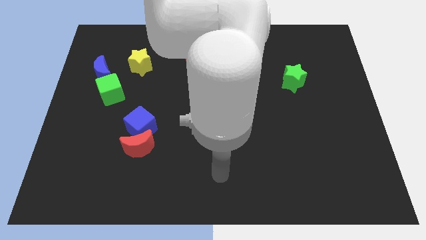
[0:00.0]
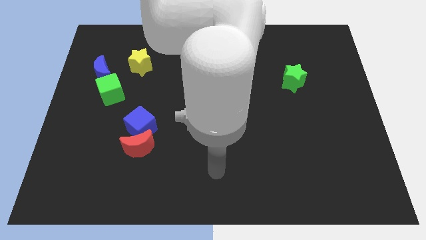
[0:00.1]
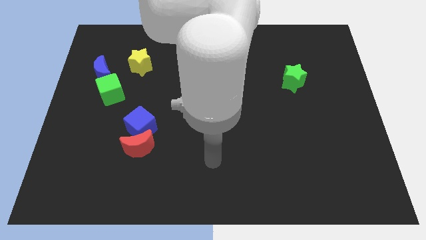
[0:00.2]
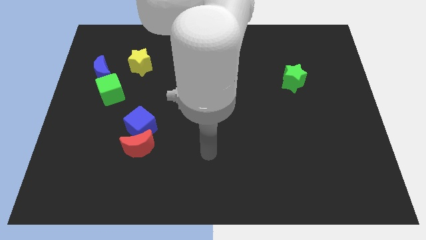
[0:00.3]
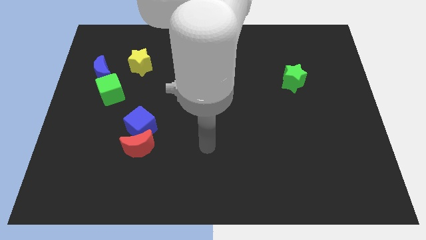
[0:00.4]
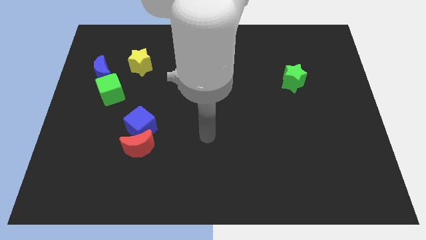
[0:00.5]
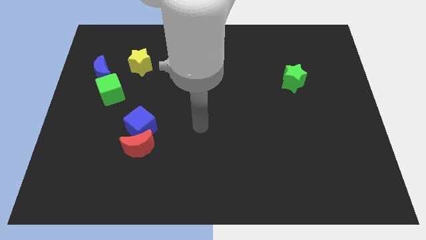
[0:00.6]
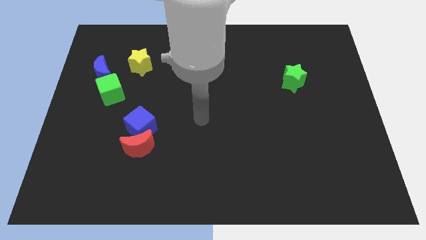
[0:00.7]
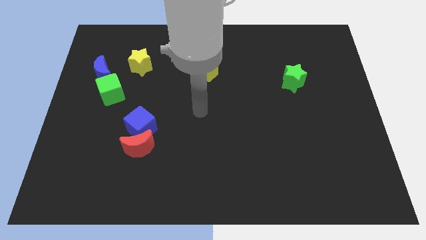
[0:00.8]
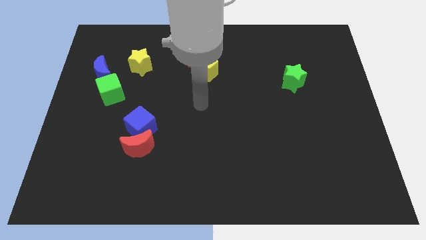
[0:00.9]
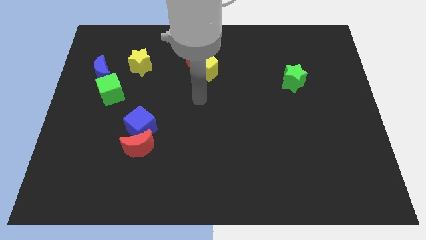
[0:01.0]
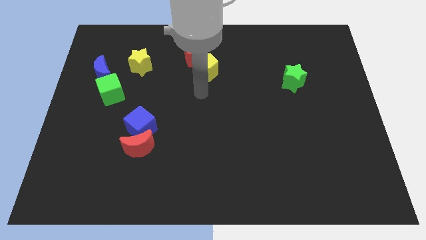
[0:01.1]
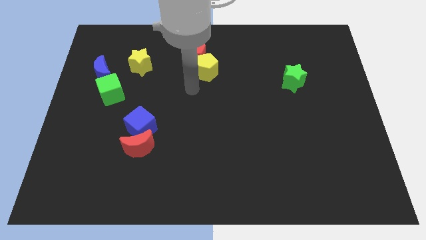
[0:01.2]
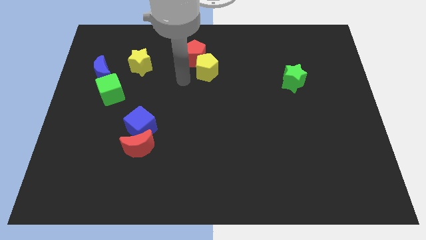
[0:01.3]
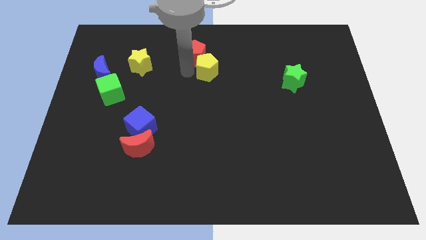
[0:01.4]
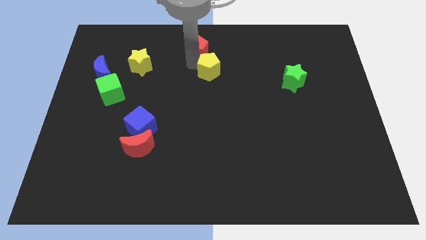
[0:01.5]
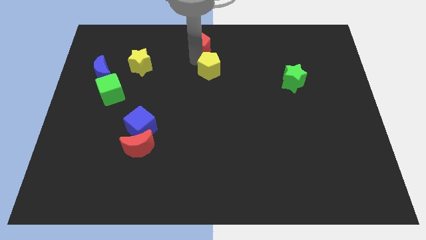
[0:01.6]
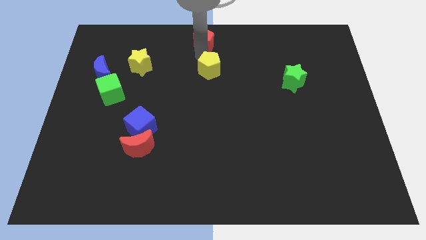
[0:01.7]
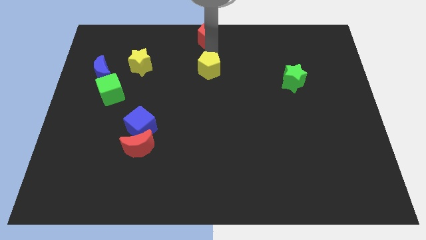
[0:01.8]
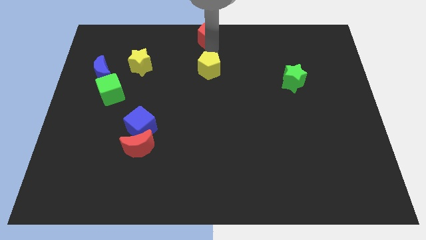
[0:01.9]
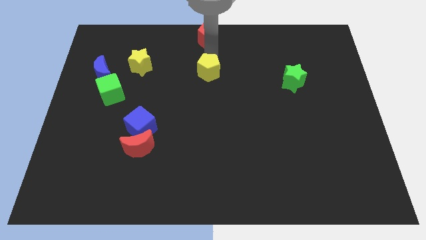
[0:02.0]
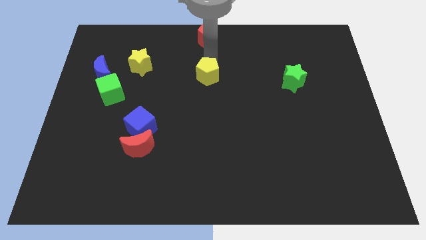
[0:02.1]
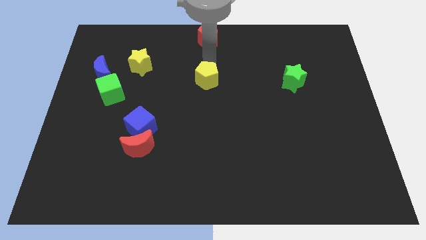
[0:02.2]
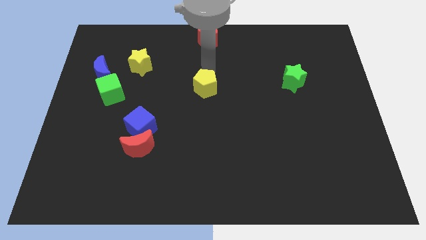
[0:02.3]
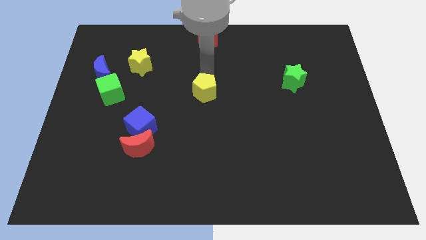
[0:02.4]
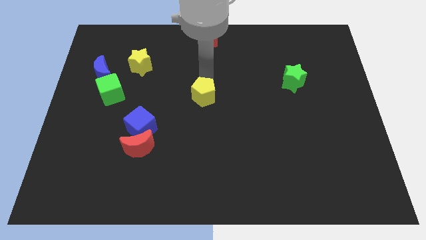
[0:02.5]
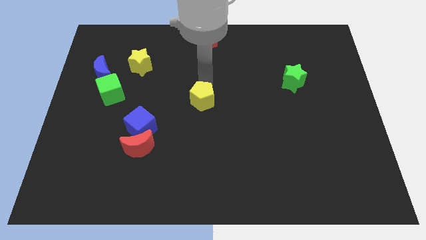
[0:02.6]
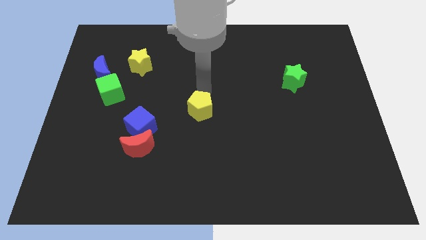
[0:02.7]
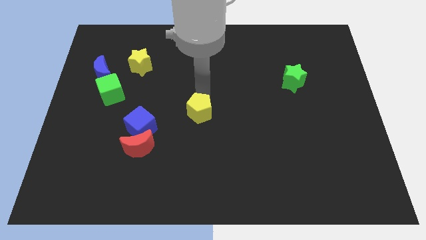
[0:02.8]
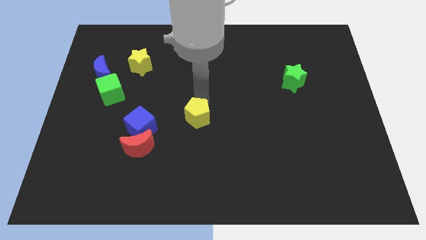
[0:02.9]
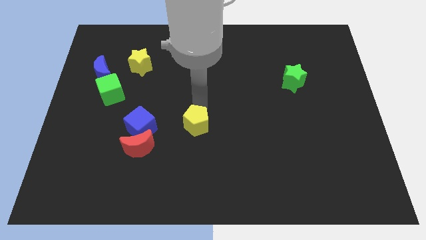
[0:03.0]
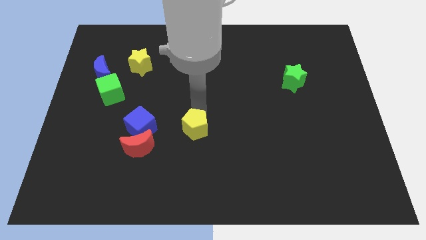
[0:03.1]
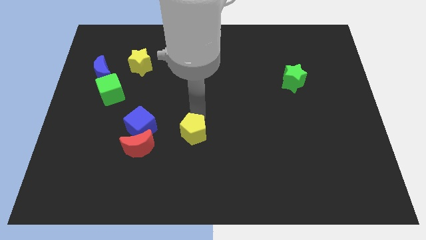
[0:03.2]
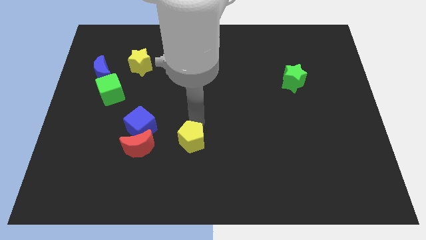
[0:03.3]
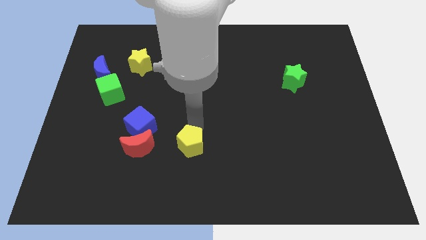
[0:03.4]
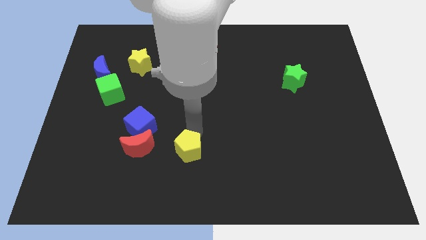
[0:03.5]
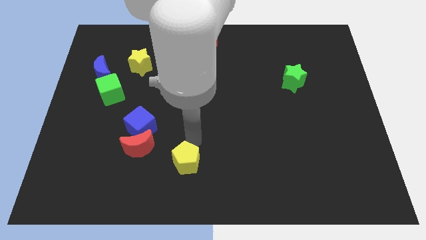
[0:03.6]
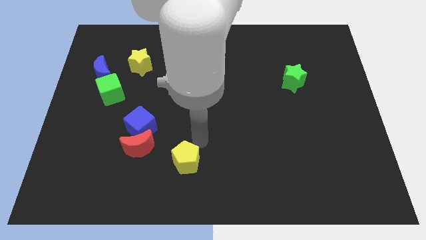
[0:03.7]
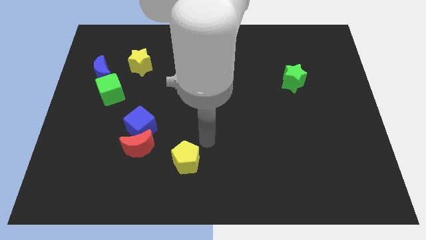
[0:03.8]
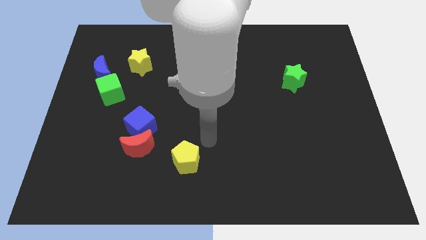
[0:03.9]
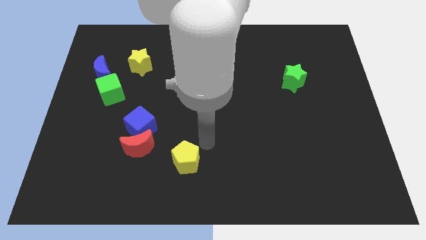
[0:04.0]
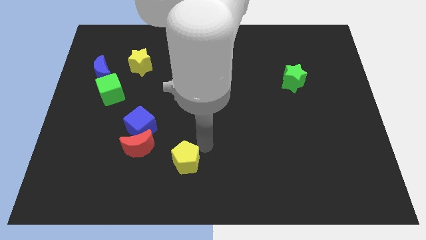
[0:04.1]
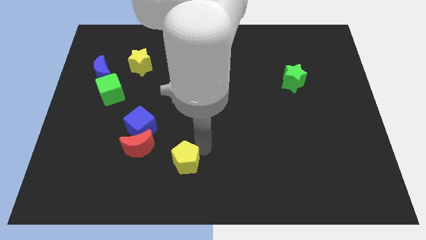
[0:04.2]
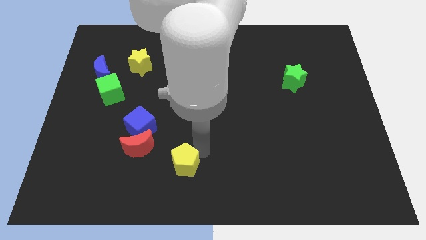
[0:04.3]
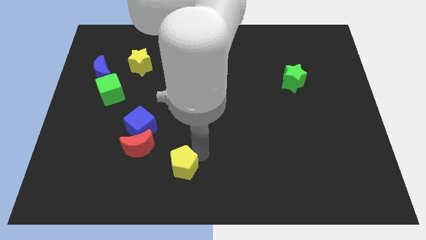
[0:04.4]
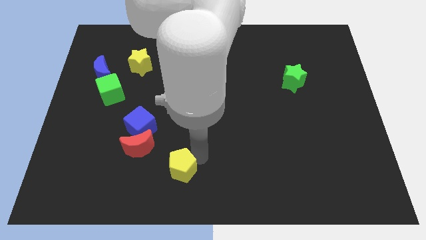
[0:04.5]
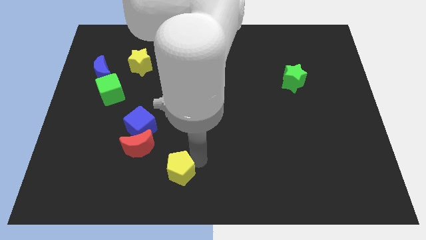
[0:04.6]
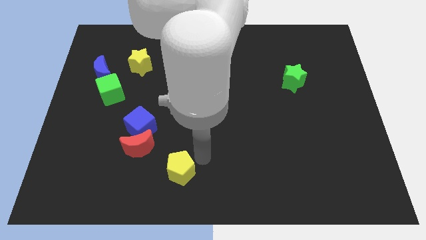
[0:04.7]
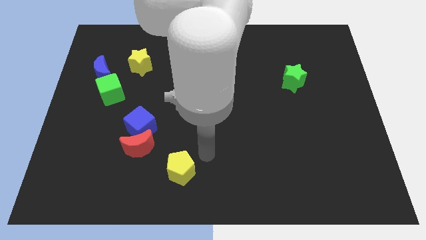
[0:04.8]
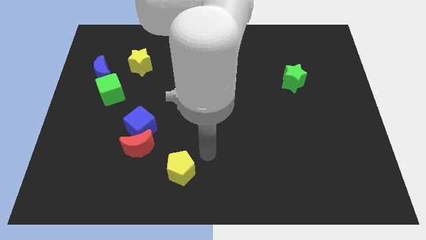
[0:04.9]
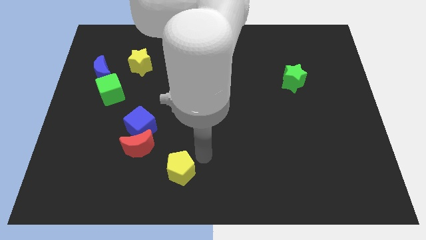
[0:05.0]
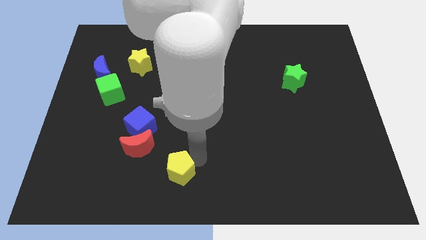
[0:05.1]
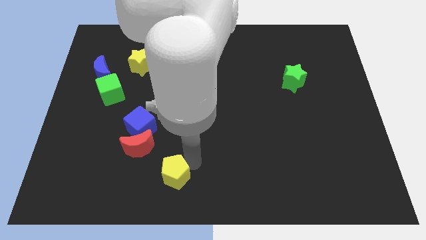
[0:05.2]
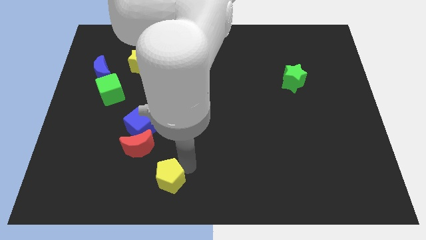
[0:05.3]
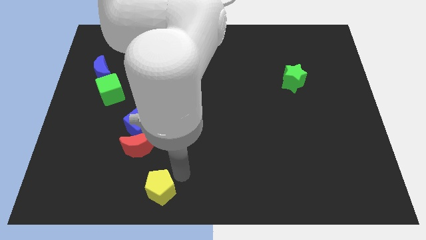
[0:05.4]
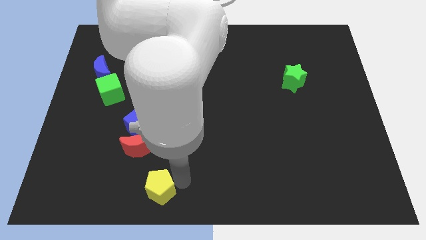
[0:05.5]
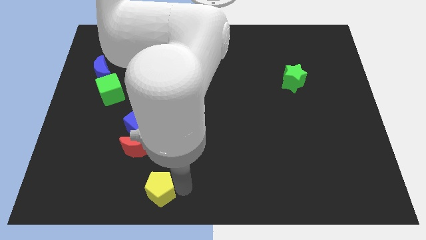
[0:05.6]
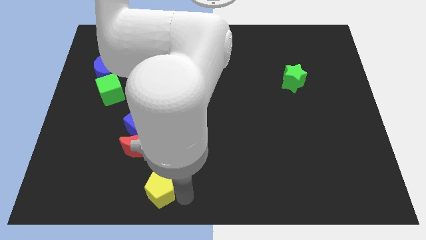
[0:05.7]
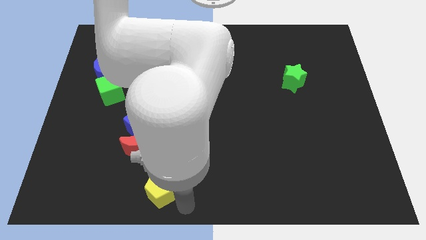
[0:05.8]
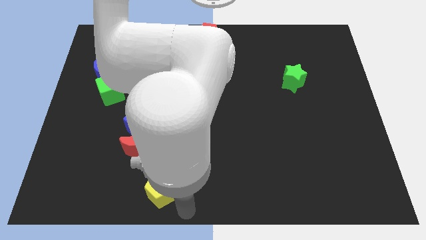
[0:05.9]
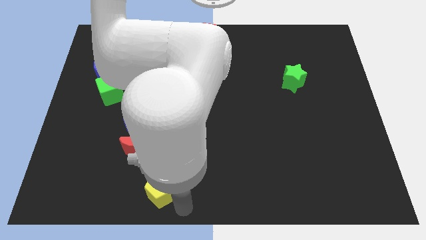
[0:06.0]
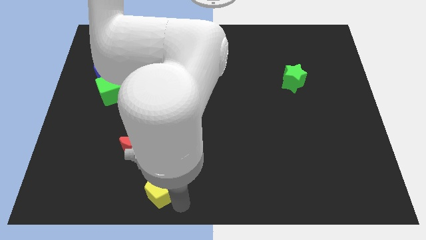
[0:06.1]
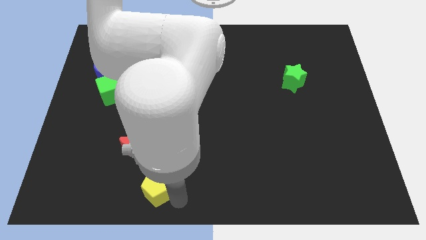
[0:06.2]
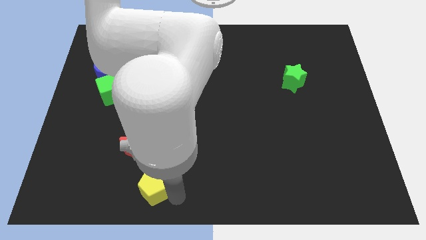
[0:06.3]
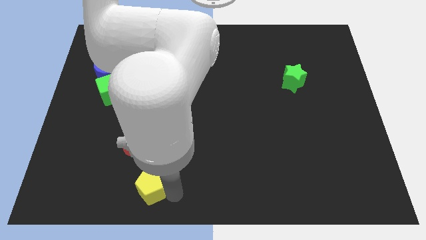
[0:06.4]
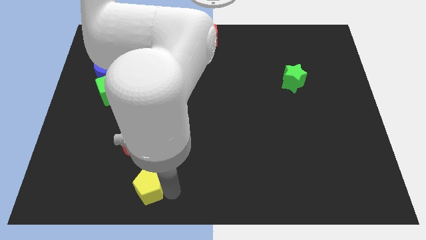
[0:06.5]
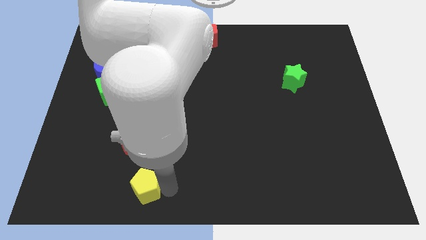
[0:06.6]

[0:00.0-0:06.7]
slide the yellow pentagon to the bottom side of the blue cube
